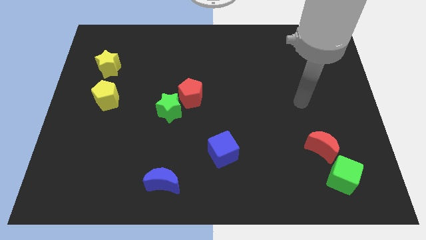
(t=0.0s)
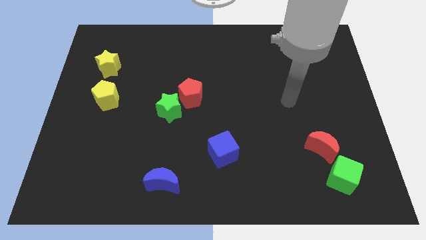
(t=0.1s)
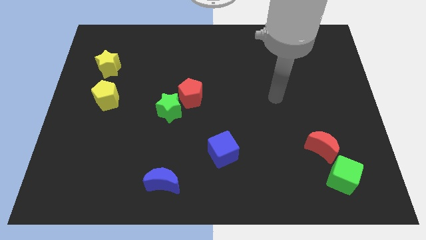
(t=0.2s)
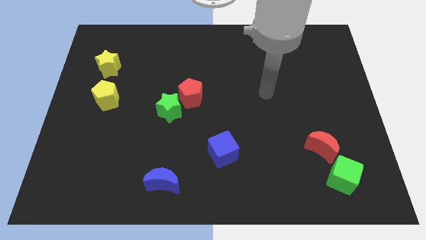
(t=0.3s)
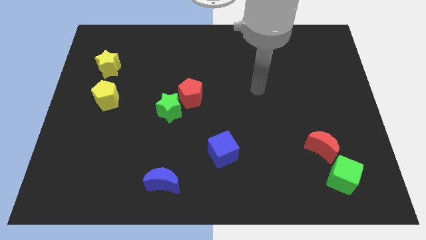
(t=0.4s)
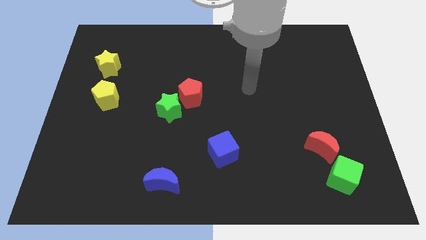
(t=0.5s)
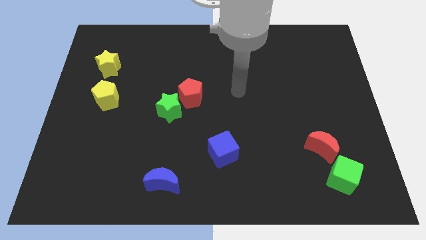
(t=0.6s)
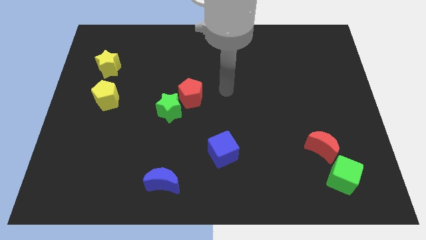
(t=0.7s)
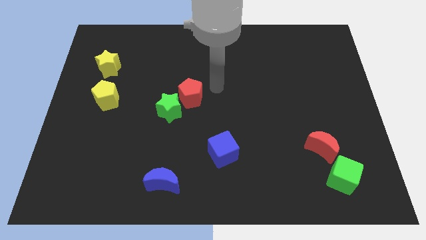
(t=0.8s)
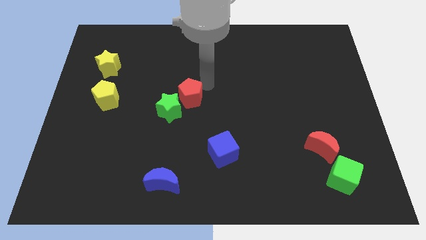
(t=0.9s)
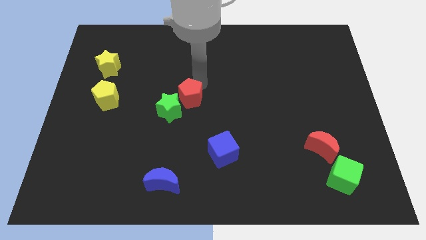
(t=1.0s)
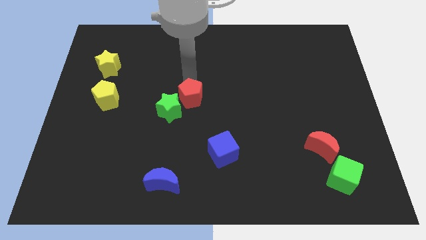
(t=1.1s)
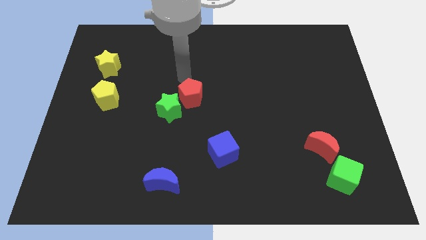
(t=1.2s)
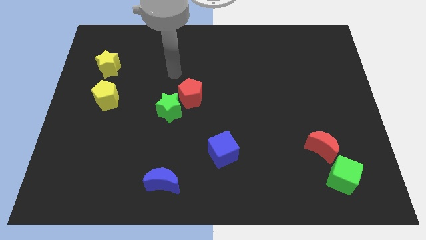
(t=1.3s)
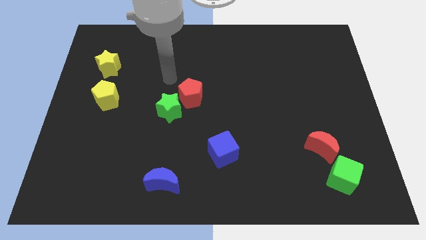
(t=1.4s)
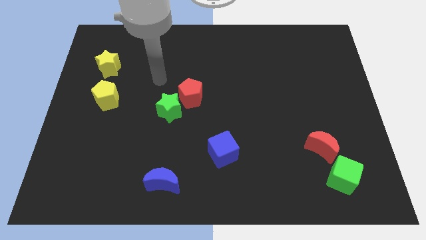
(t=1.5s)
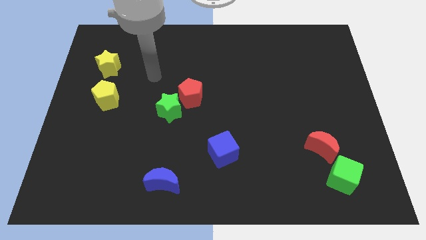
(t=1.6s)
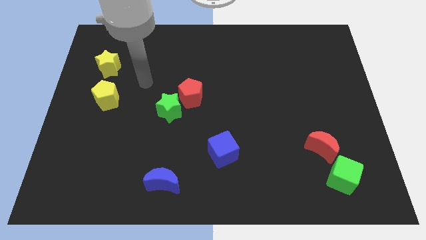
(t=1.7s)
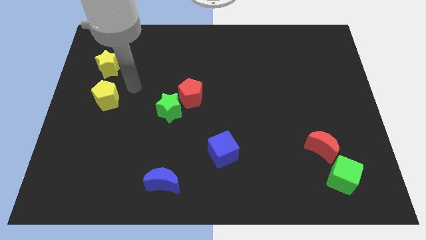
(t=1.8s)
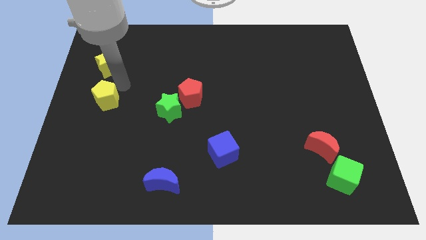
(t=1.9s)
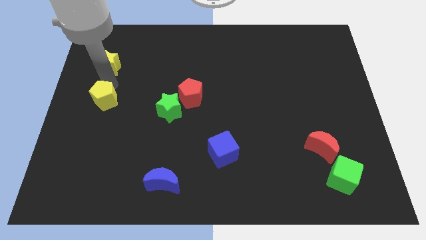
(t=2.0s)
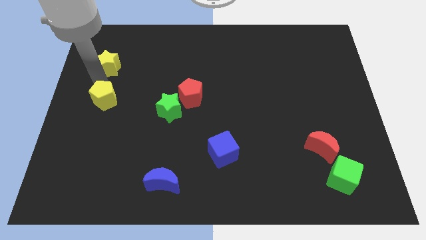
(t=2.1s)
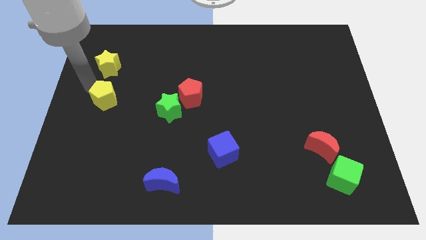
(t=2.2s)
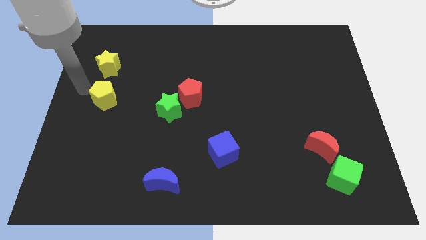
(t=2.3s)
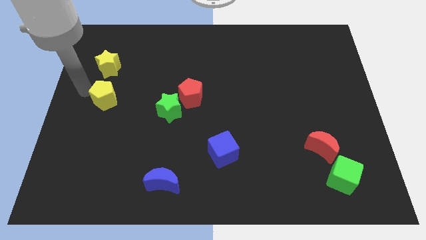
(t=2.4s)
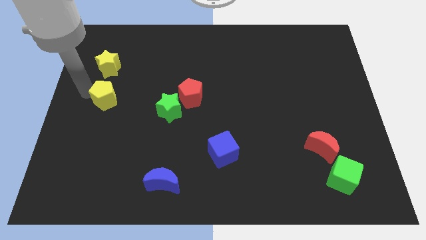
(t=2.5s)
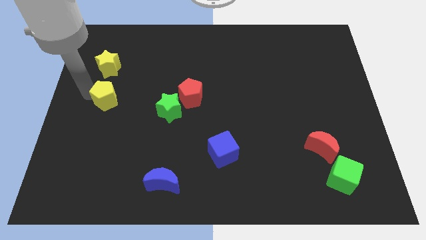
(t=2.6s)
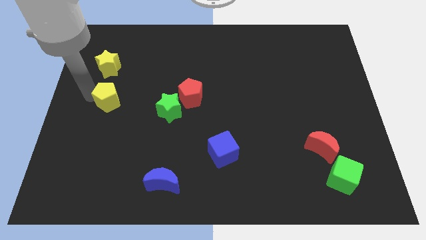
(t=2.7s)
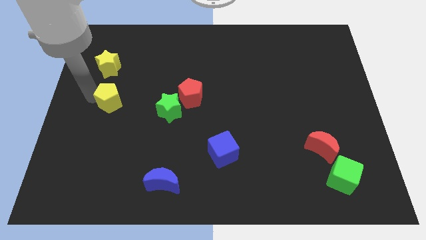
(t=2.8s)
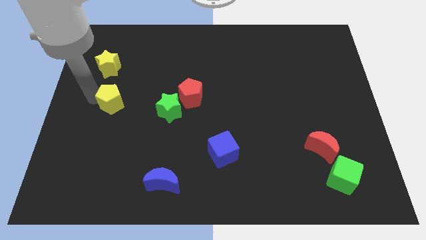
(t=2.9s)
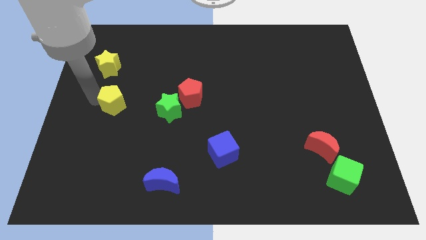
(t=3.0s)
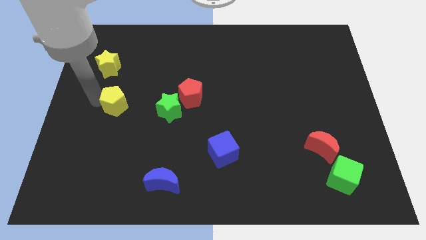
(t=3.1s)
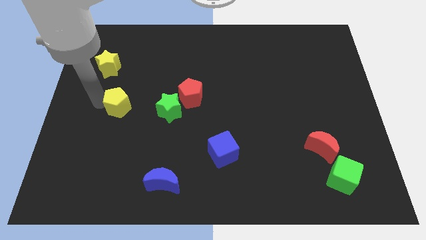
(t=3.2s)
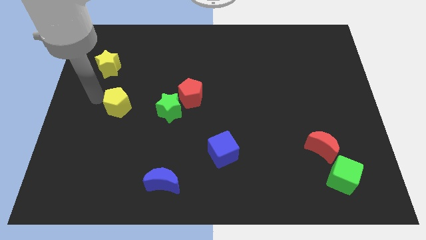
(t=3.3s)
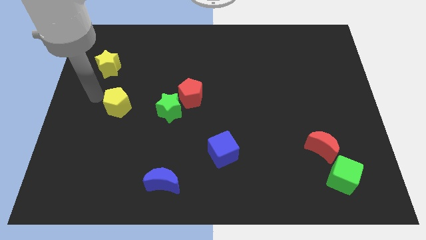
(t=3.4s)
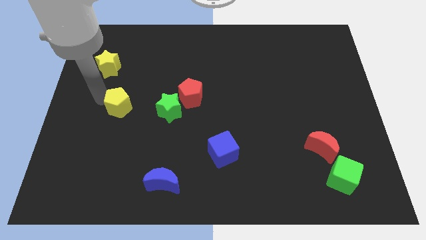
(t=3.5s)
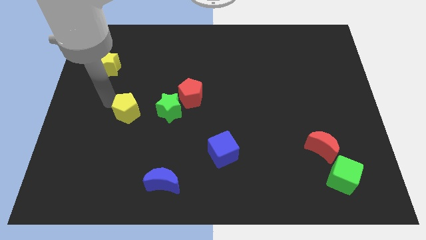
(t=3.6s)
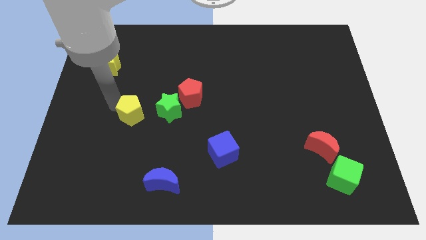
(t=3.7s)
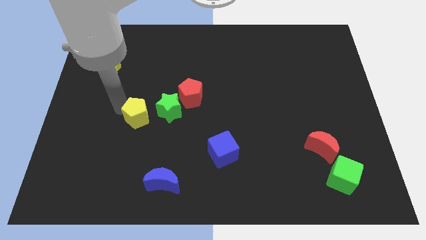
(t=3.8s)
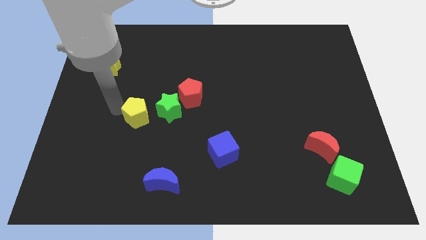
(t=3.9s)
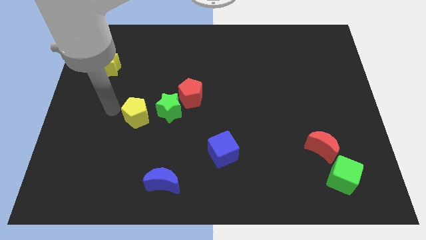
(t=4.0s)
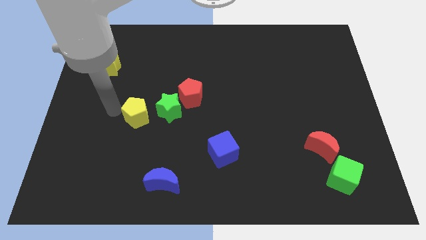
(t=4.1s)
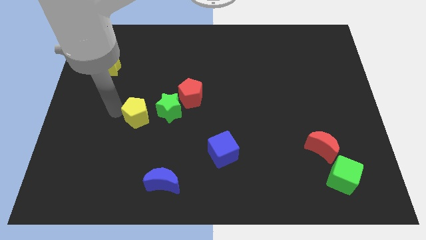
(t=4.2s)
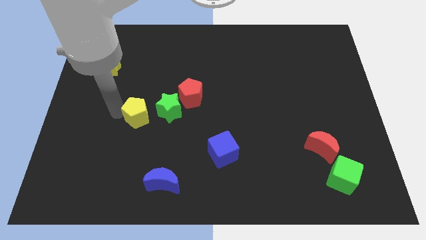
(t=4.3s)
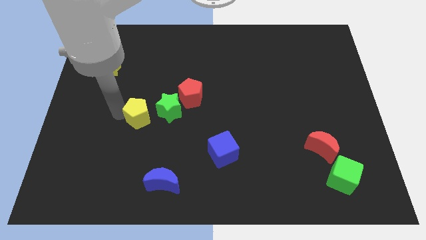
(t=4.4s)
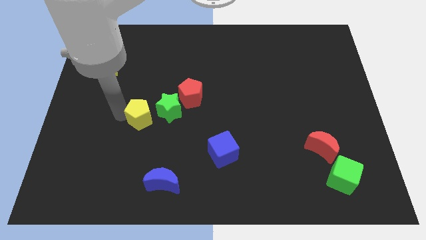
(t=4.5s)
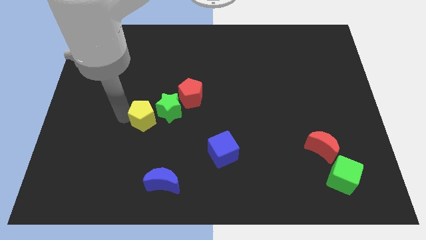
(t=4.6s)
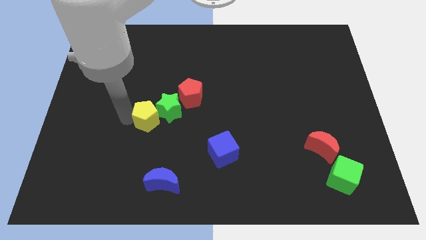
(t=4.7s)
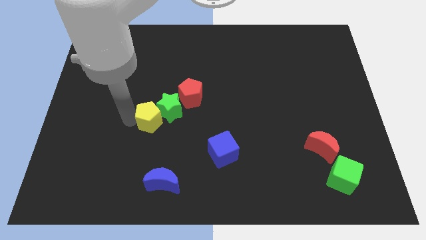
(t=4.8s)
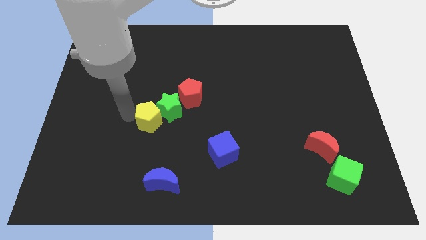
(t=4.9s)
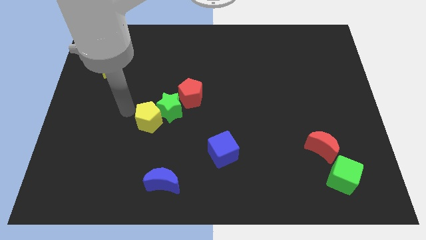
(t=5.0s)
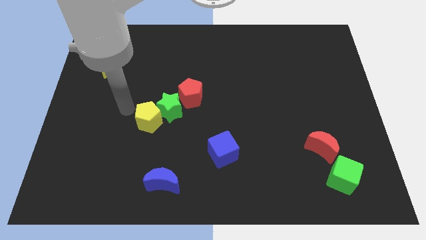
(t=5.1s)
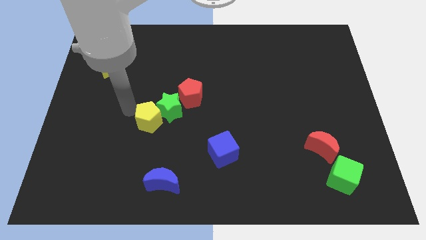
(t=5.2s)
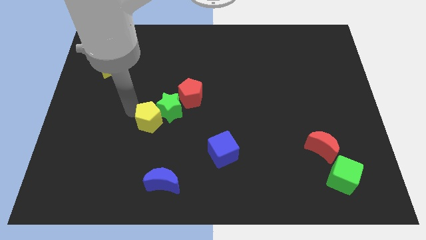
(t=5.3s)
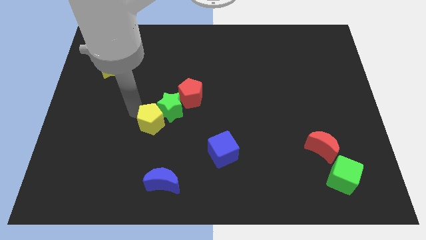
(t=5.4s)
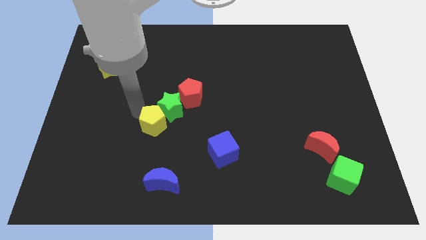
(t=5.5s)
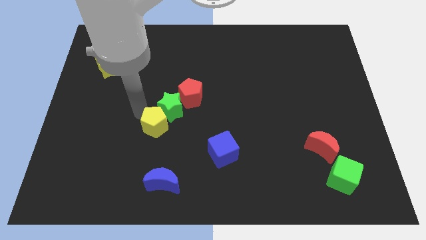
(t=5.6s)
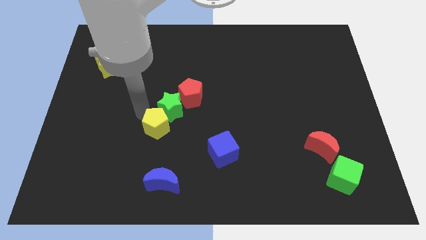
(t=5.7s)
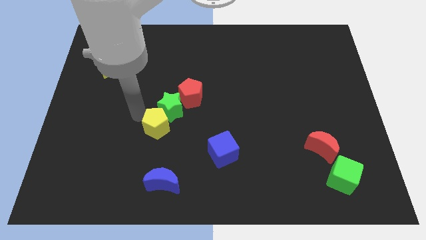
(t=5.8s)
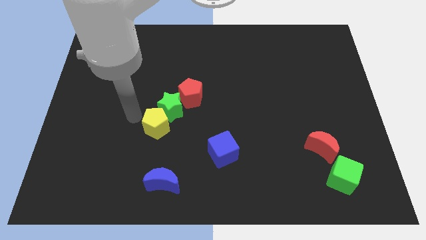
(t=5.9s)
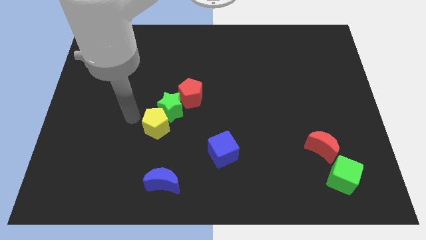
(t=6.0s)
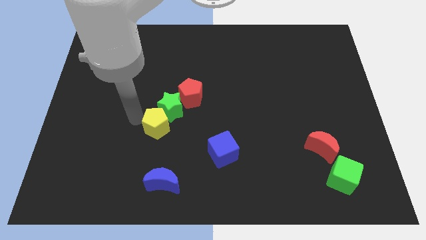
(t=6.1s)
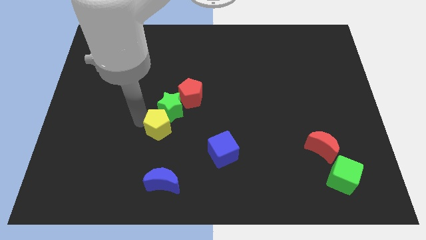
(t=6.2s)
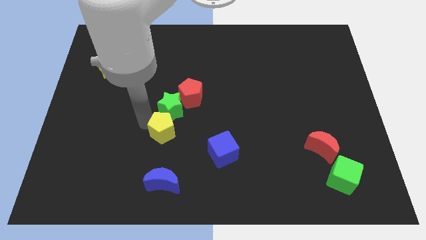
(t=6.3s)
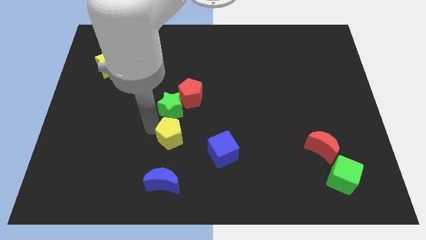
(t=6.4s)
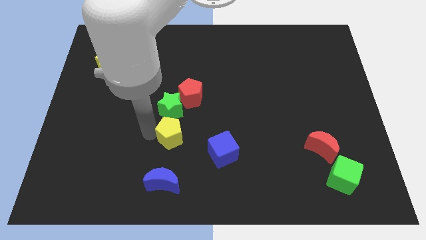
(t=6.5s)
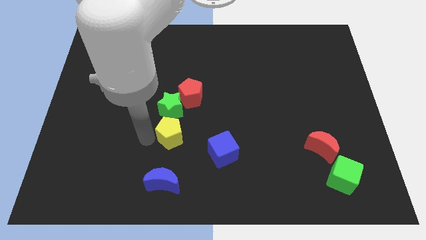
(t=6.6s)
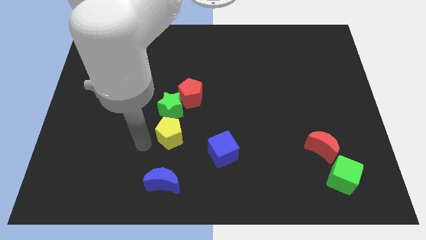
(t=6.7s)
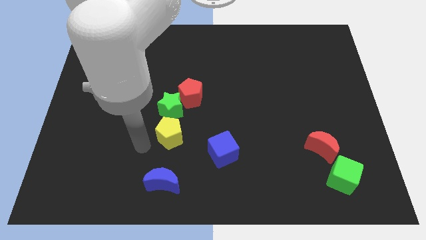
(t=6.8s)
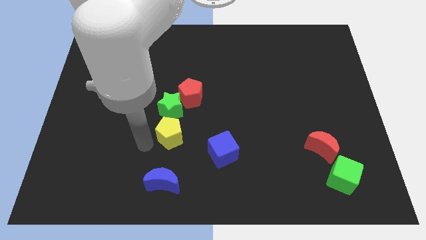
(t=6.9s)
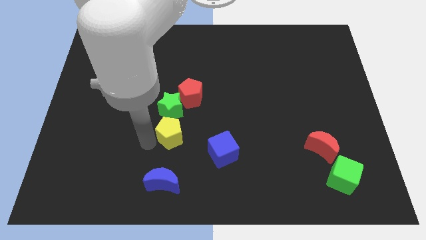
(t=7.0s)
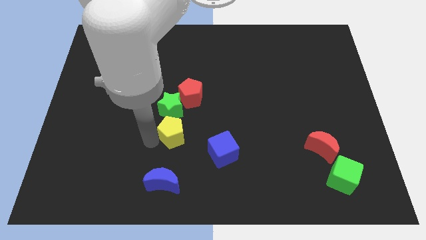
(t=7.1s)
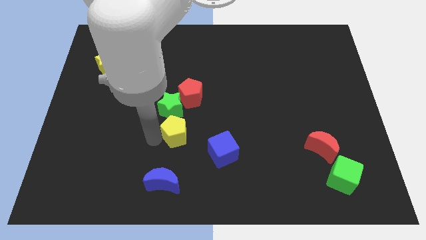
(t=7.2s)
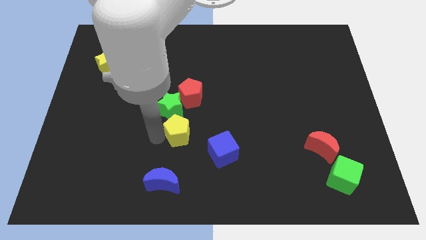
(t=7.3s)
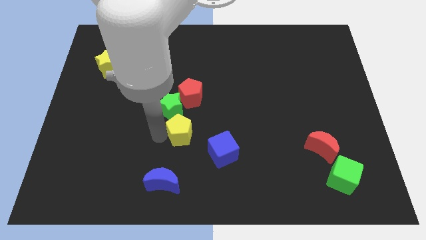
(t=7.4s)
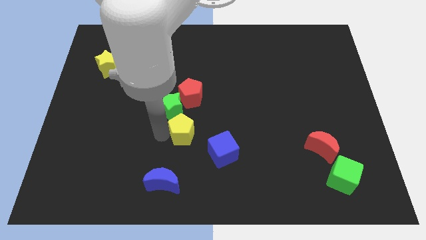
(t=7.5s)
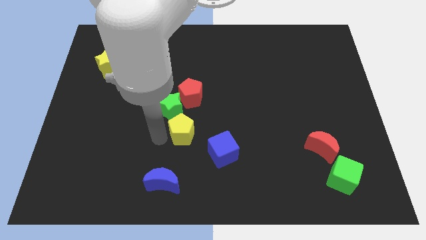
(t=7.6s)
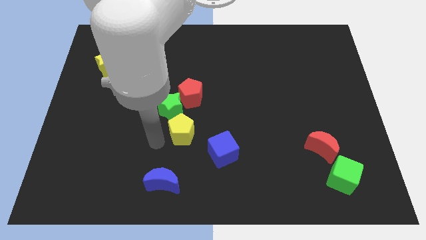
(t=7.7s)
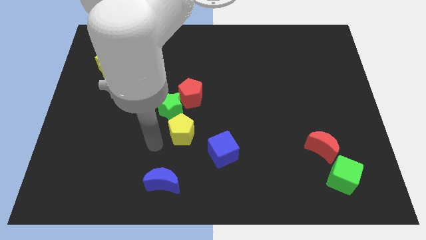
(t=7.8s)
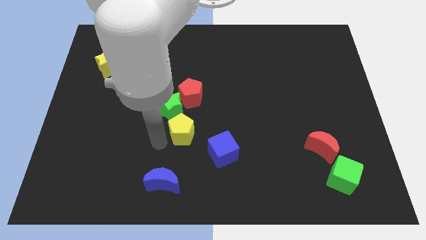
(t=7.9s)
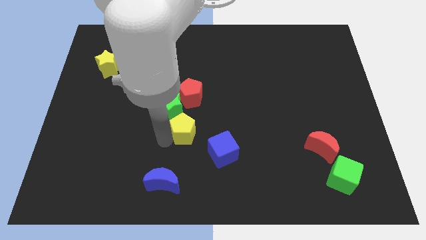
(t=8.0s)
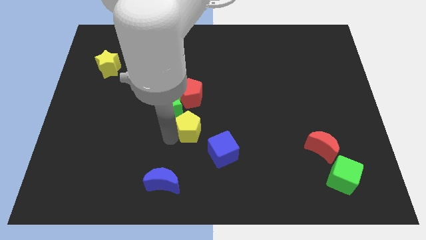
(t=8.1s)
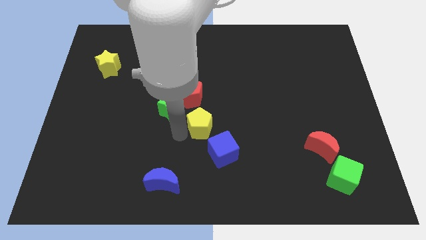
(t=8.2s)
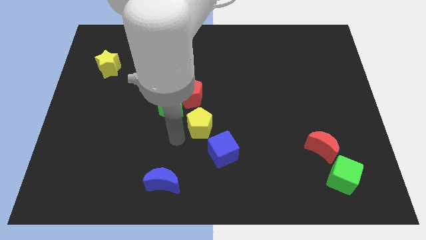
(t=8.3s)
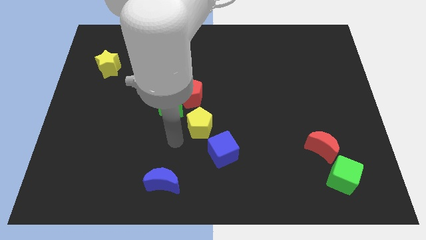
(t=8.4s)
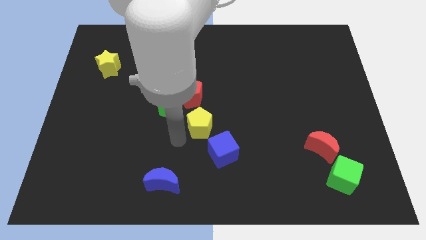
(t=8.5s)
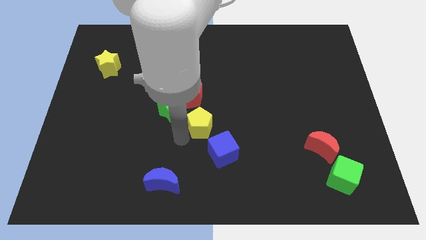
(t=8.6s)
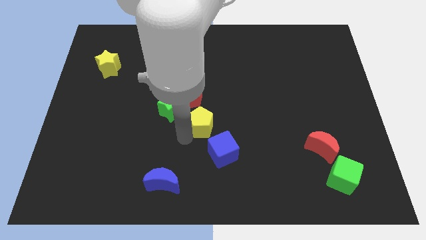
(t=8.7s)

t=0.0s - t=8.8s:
push the yellow pentagon to the top of the blue cube
